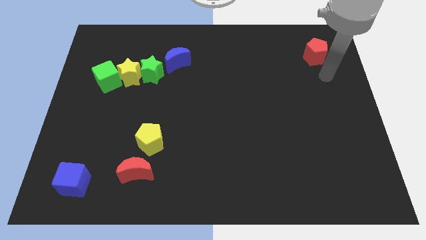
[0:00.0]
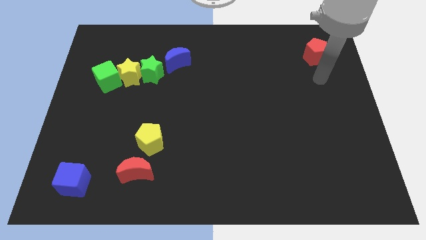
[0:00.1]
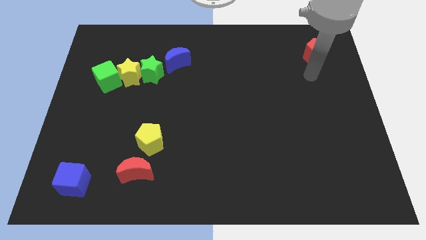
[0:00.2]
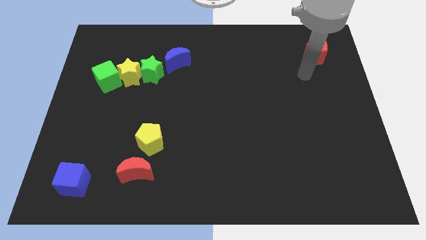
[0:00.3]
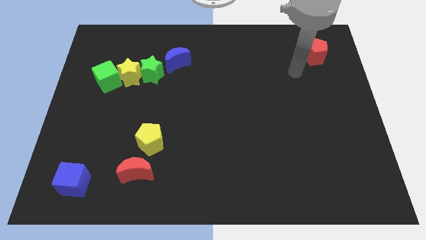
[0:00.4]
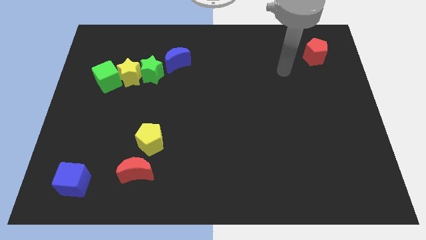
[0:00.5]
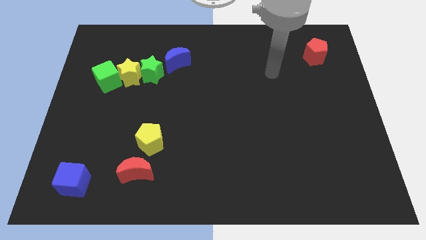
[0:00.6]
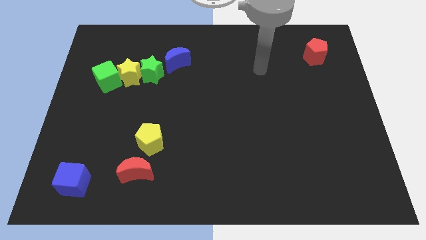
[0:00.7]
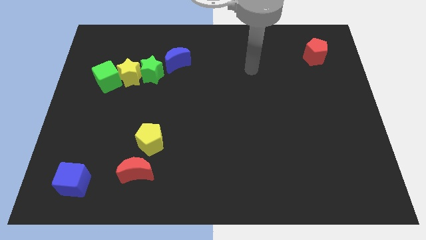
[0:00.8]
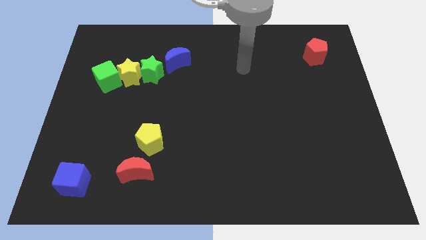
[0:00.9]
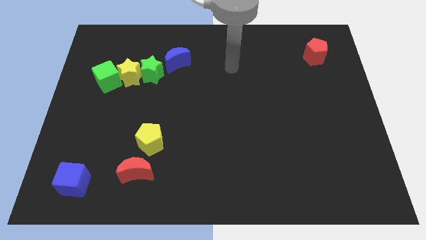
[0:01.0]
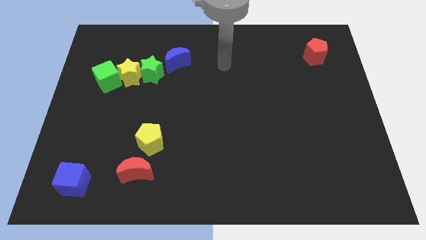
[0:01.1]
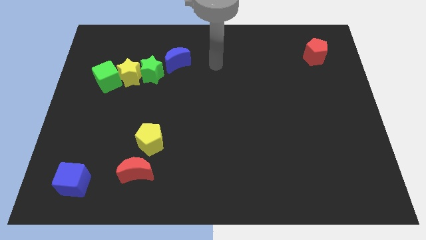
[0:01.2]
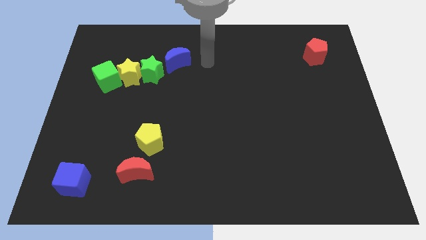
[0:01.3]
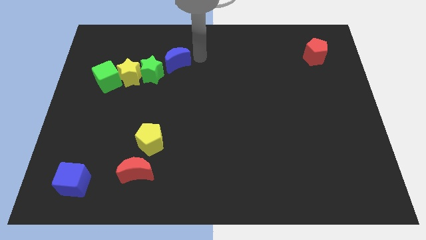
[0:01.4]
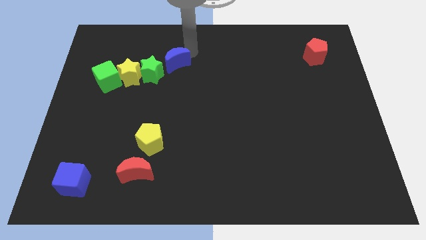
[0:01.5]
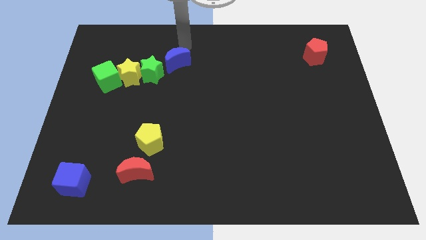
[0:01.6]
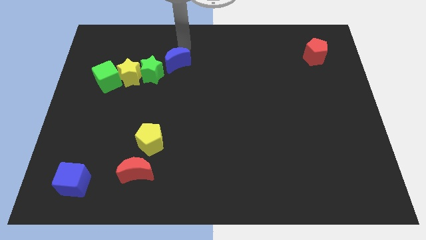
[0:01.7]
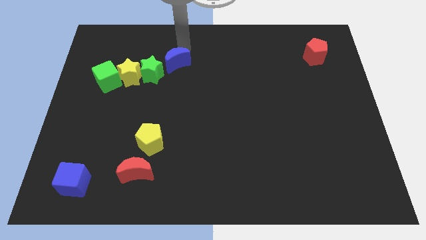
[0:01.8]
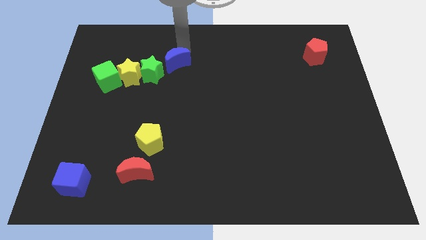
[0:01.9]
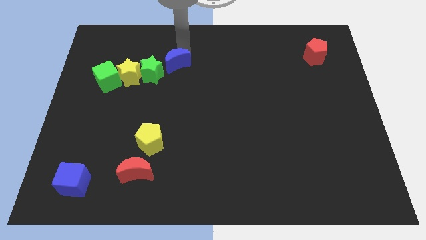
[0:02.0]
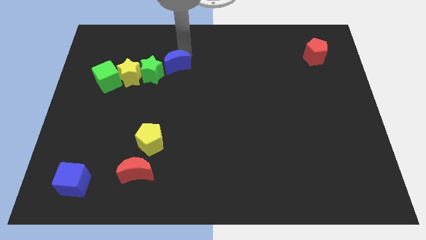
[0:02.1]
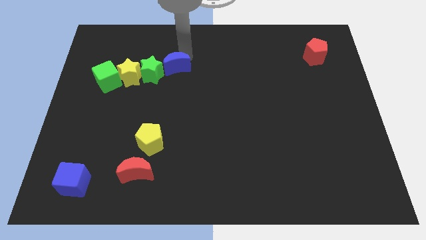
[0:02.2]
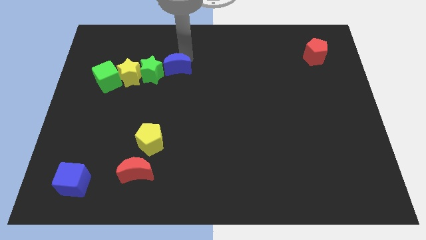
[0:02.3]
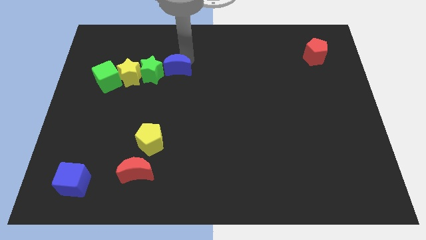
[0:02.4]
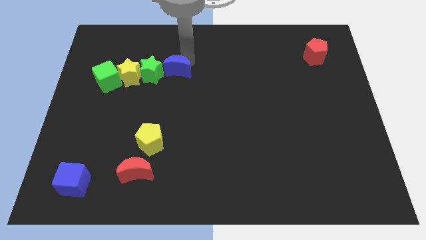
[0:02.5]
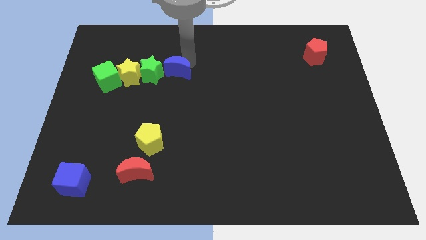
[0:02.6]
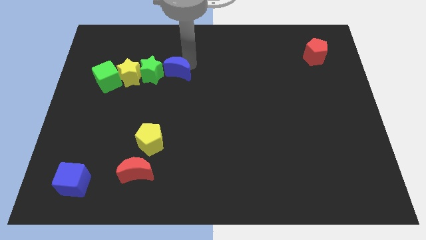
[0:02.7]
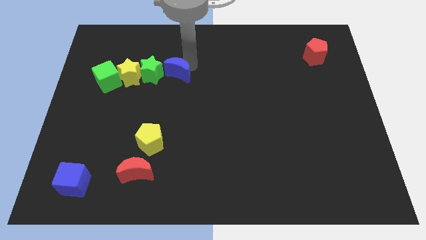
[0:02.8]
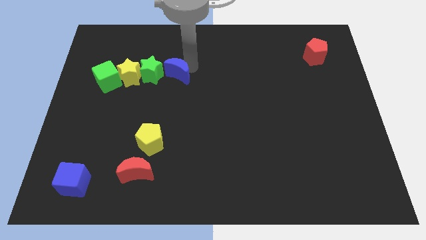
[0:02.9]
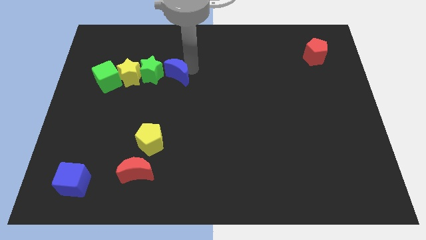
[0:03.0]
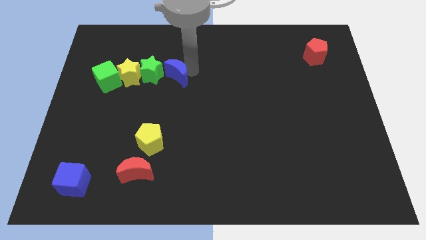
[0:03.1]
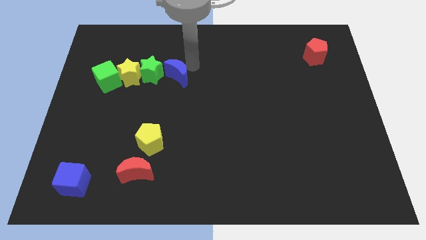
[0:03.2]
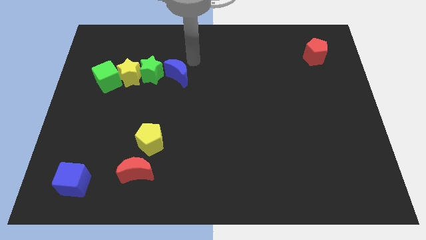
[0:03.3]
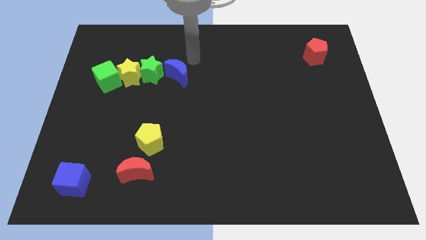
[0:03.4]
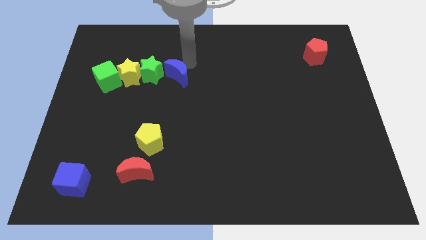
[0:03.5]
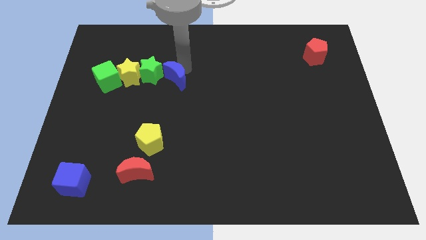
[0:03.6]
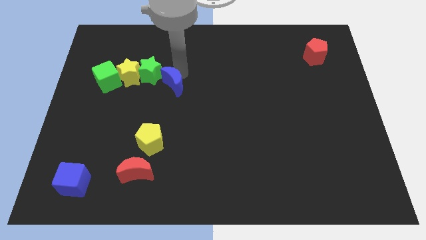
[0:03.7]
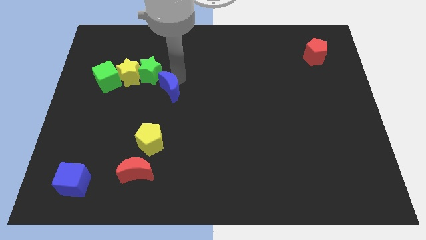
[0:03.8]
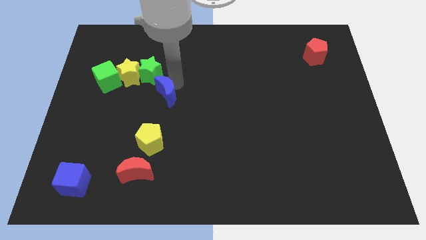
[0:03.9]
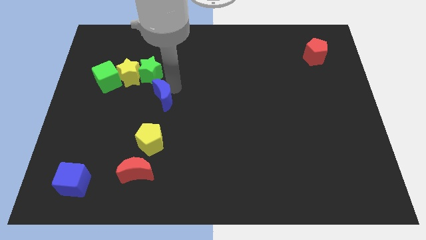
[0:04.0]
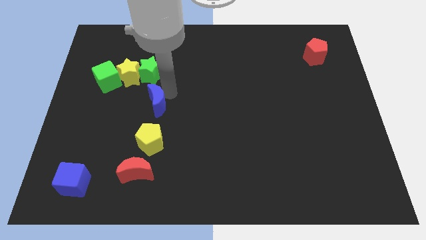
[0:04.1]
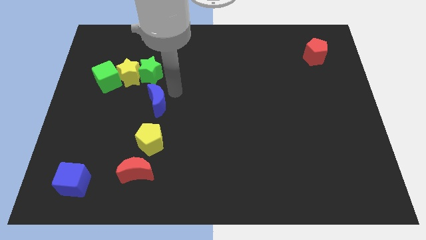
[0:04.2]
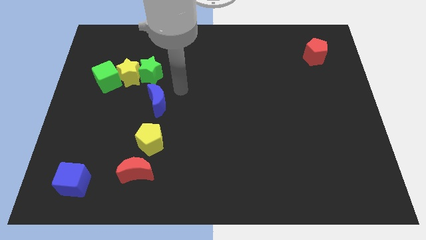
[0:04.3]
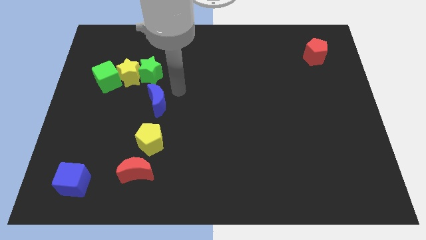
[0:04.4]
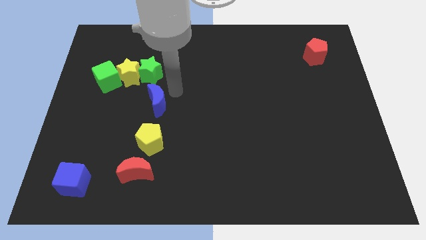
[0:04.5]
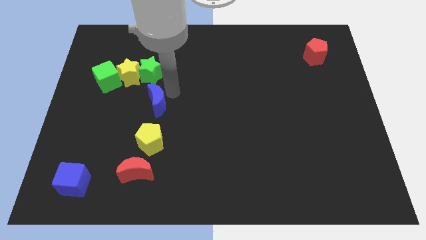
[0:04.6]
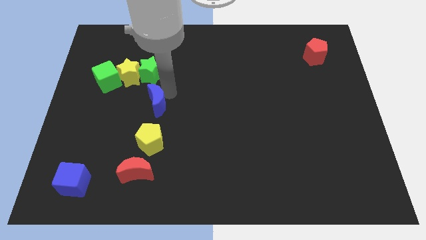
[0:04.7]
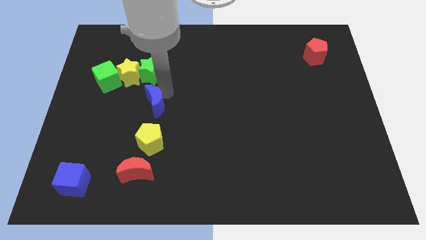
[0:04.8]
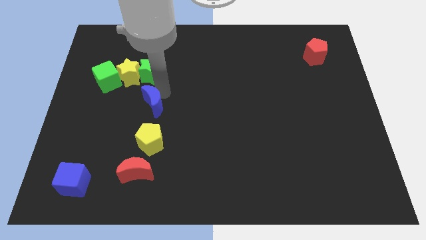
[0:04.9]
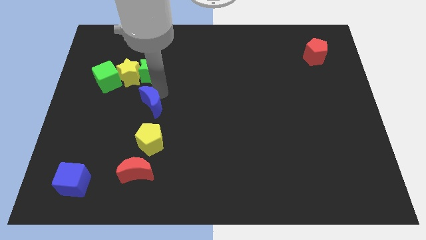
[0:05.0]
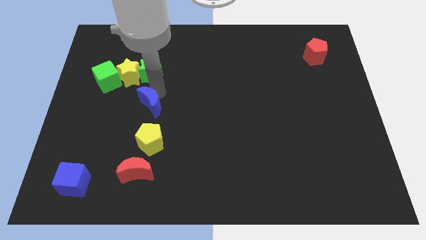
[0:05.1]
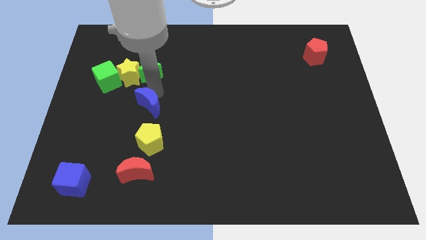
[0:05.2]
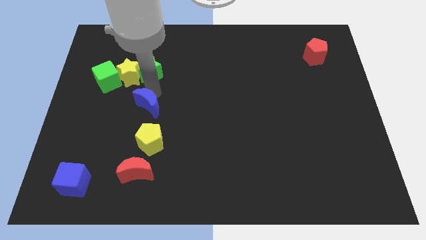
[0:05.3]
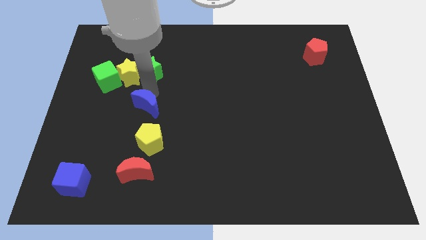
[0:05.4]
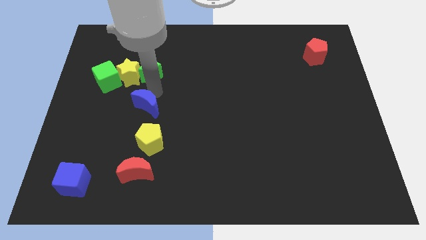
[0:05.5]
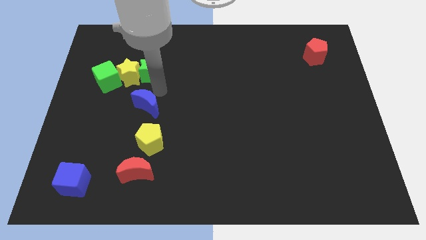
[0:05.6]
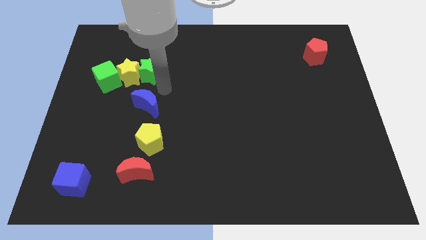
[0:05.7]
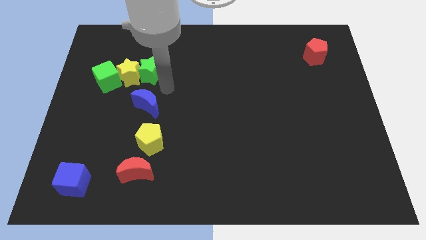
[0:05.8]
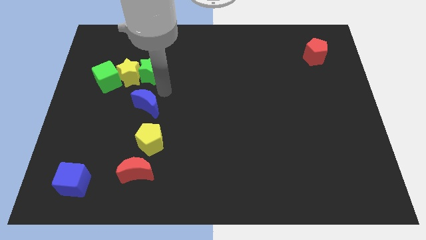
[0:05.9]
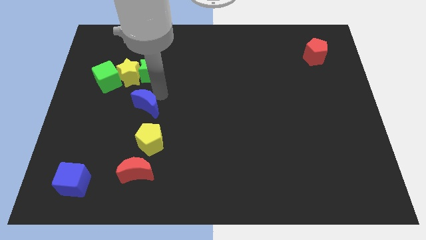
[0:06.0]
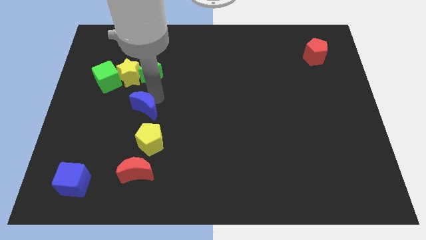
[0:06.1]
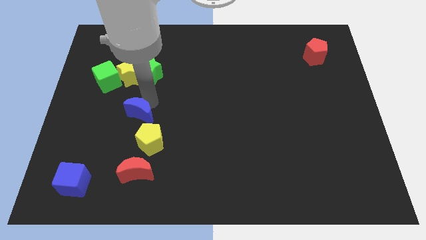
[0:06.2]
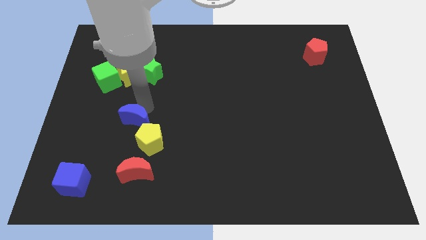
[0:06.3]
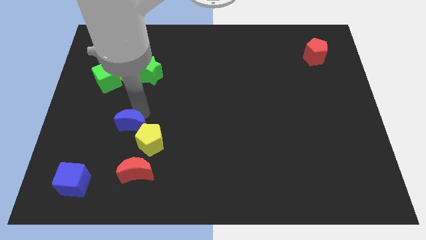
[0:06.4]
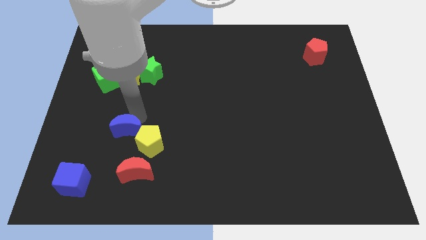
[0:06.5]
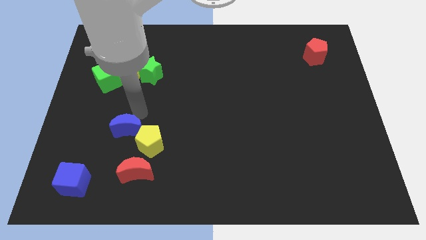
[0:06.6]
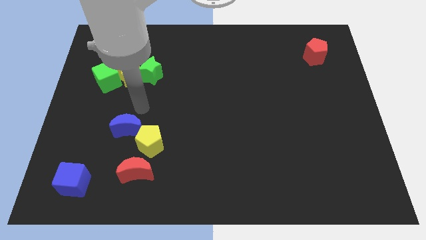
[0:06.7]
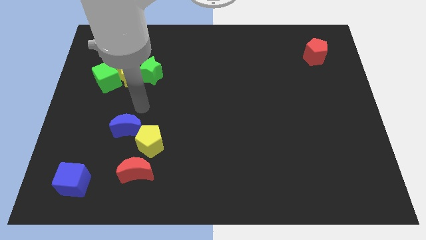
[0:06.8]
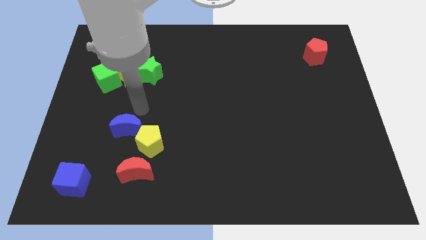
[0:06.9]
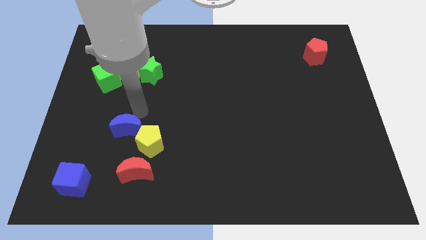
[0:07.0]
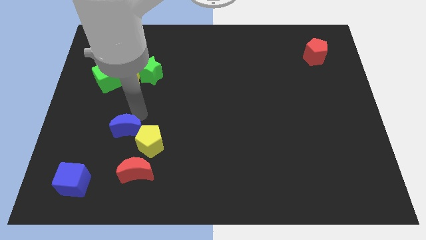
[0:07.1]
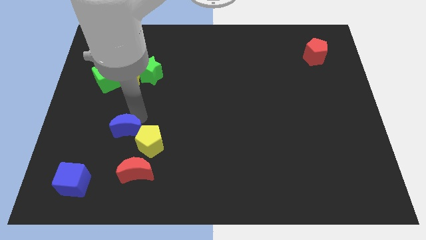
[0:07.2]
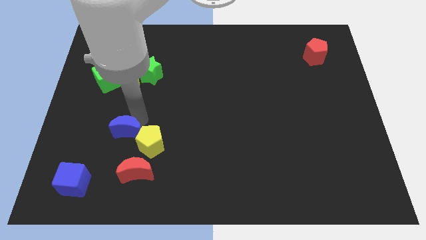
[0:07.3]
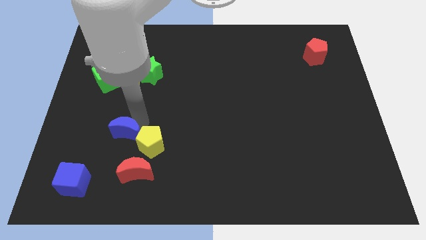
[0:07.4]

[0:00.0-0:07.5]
put the blue moon to the top left side of the red moon
